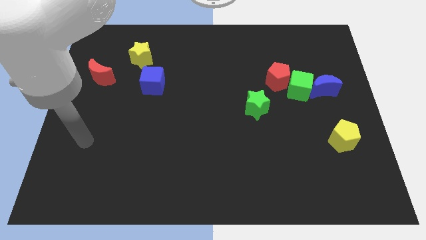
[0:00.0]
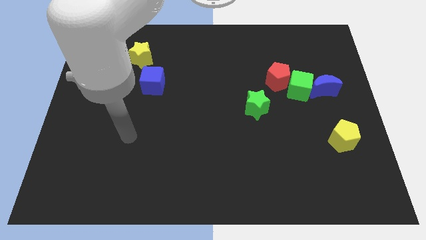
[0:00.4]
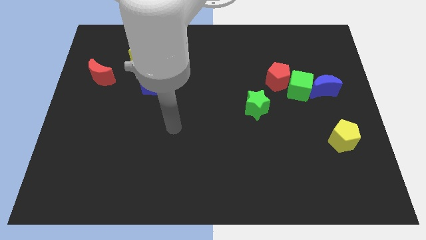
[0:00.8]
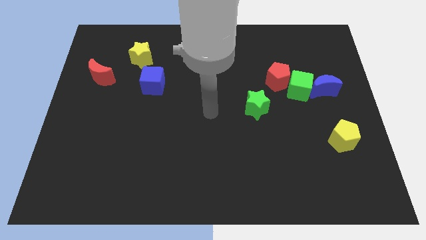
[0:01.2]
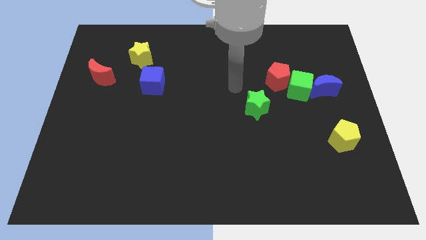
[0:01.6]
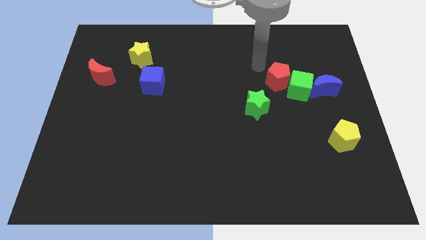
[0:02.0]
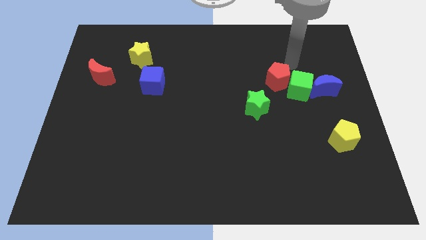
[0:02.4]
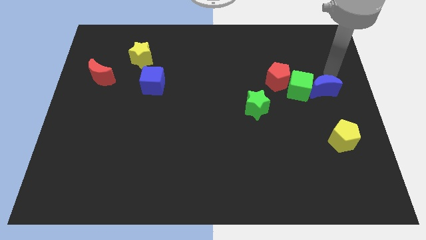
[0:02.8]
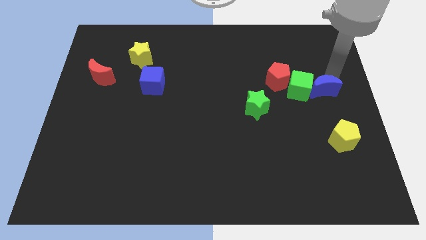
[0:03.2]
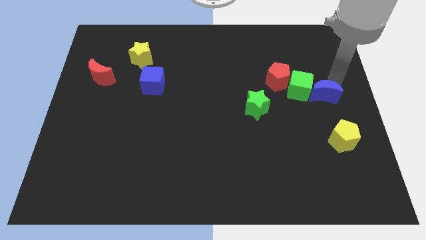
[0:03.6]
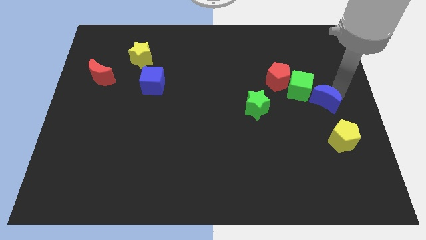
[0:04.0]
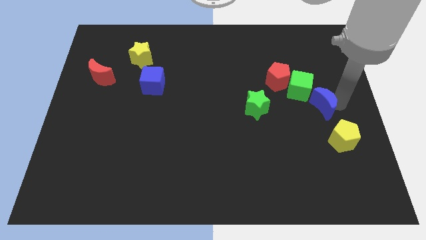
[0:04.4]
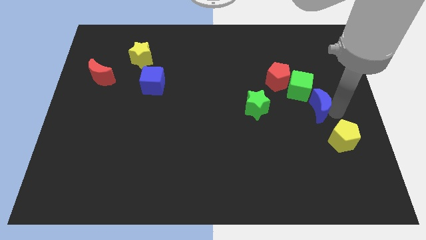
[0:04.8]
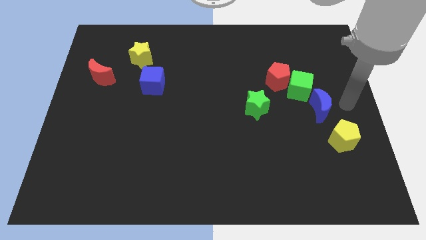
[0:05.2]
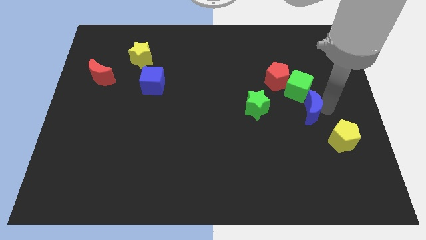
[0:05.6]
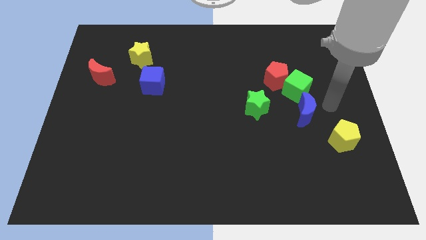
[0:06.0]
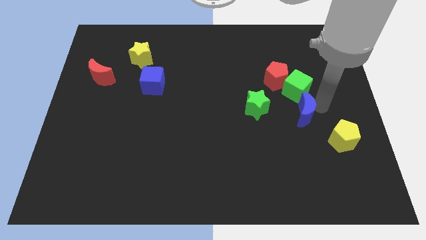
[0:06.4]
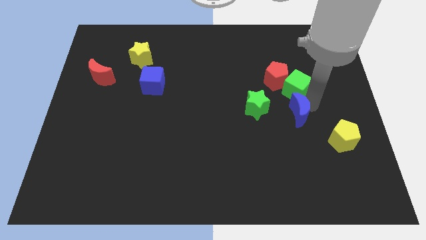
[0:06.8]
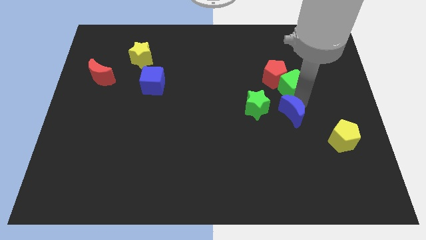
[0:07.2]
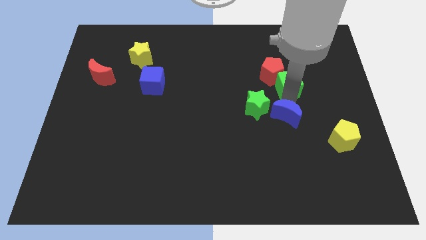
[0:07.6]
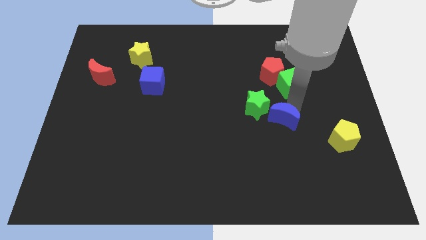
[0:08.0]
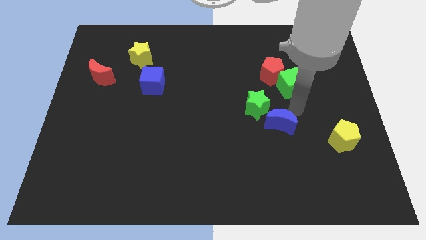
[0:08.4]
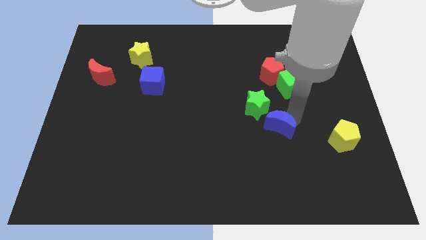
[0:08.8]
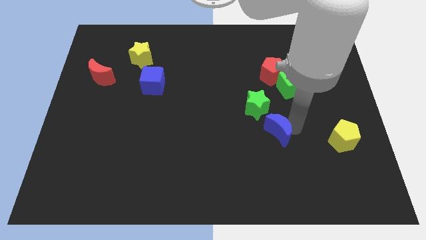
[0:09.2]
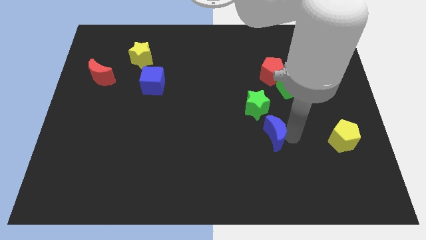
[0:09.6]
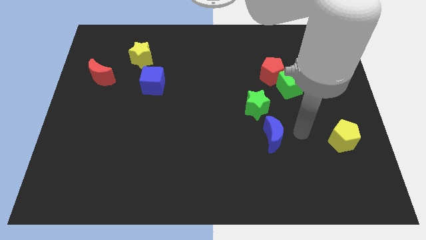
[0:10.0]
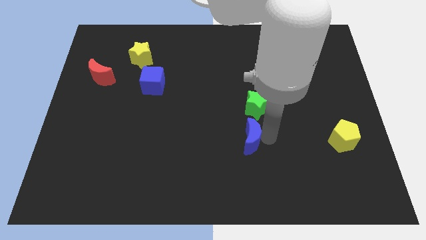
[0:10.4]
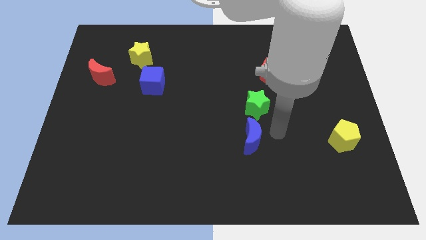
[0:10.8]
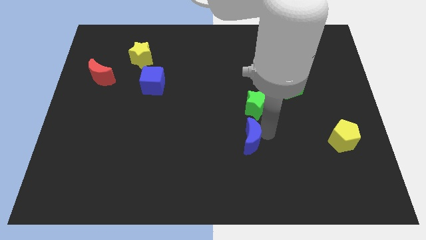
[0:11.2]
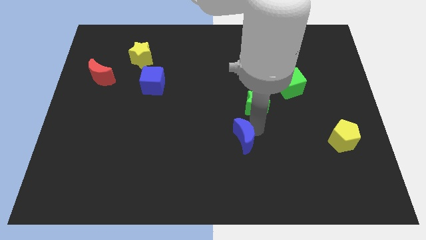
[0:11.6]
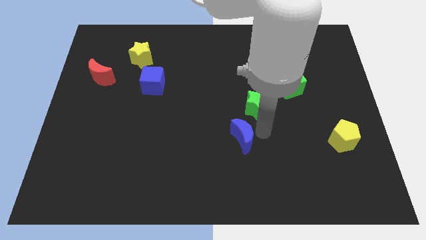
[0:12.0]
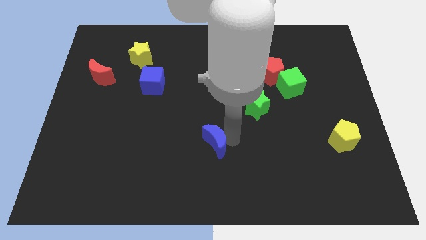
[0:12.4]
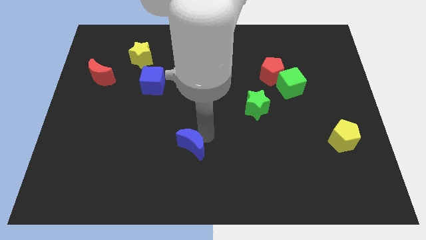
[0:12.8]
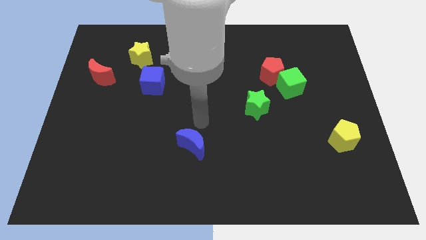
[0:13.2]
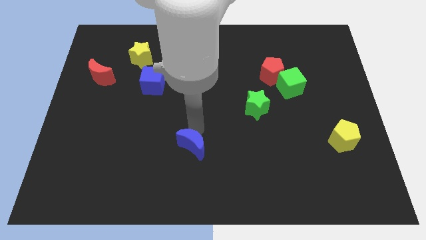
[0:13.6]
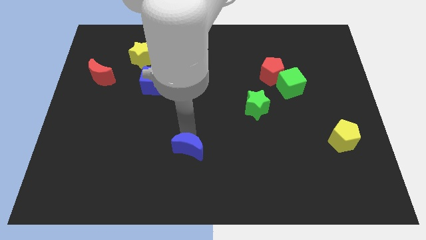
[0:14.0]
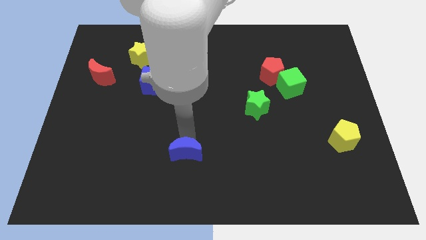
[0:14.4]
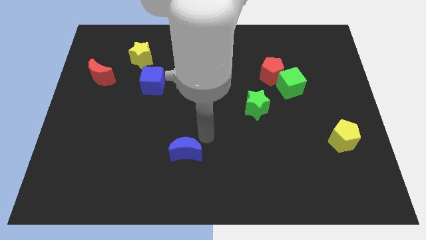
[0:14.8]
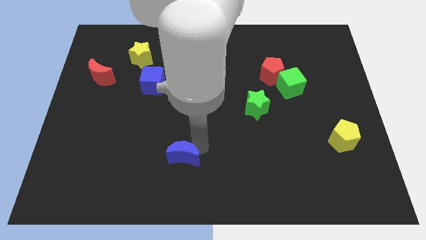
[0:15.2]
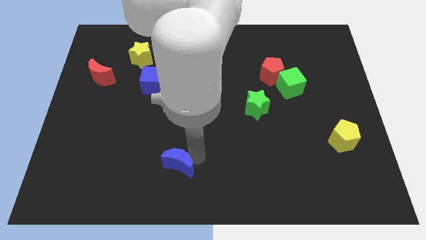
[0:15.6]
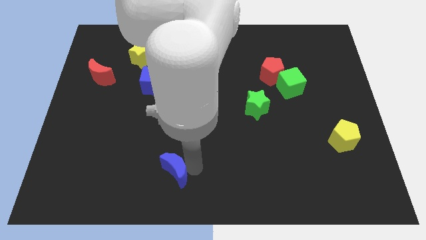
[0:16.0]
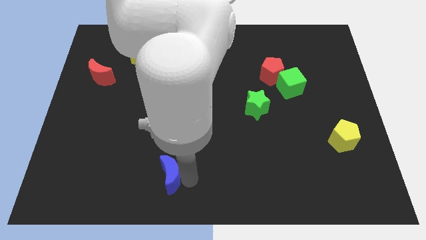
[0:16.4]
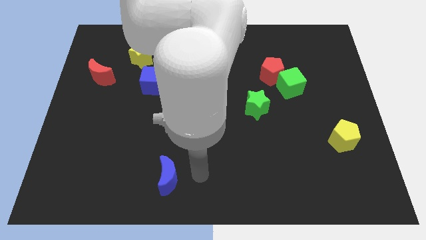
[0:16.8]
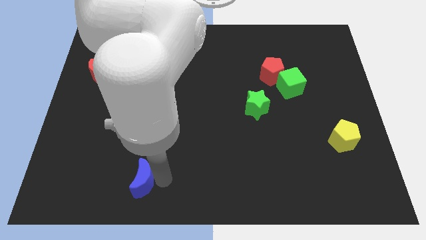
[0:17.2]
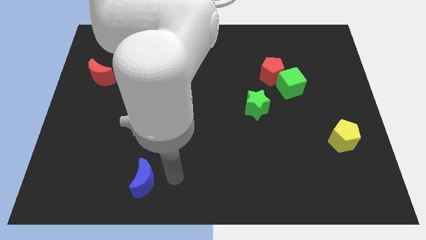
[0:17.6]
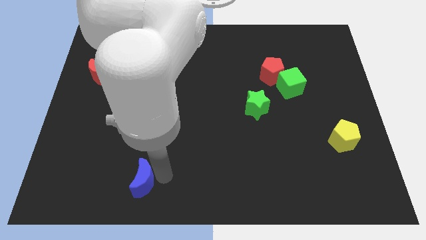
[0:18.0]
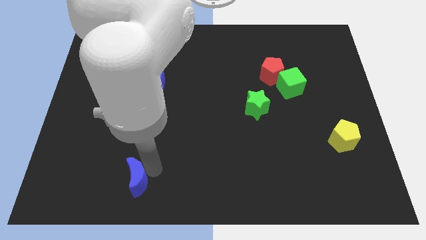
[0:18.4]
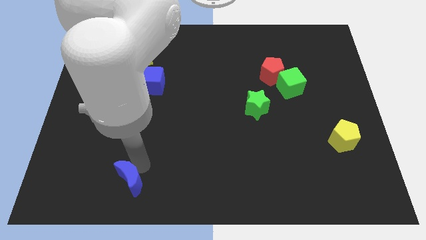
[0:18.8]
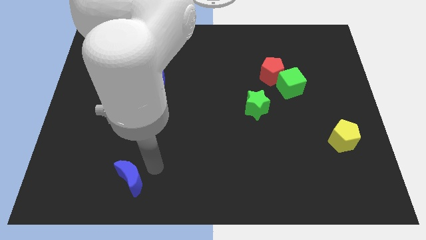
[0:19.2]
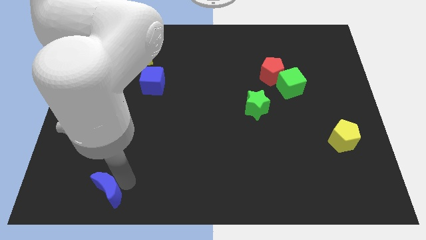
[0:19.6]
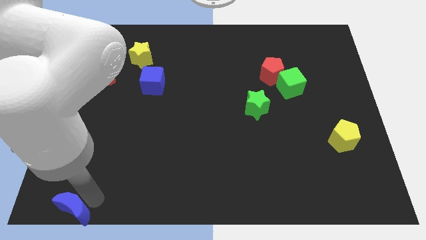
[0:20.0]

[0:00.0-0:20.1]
put the blue moon to the bottom left corner

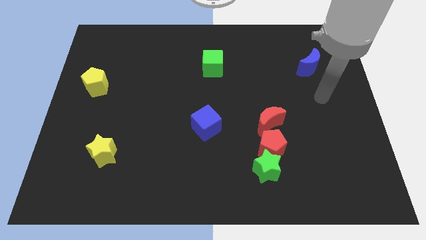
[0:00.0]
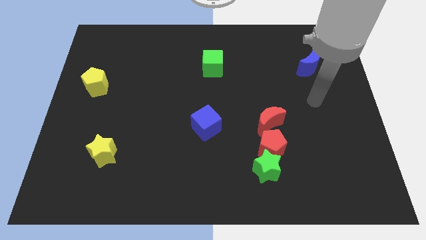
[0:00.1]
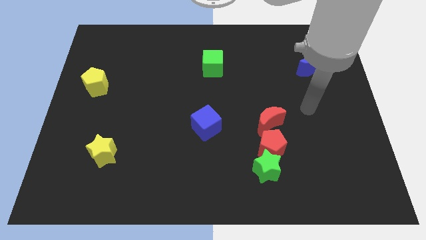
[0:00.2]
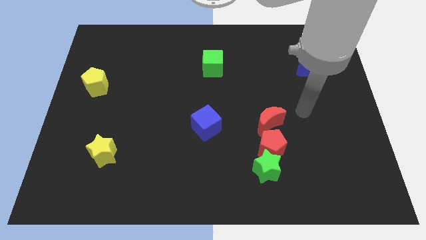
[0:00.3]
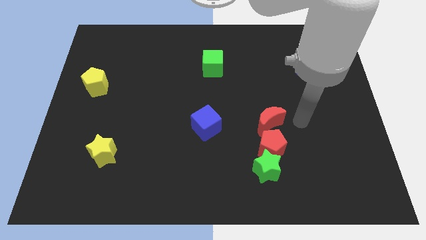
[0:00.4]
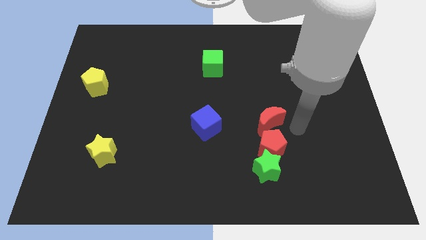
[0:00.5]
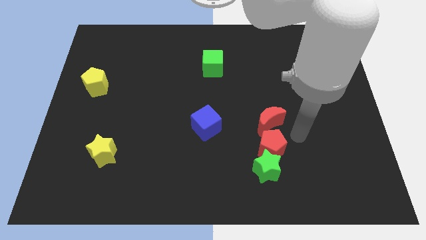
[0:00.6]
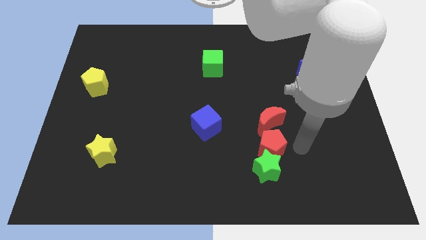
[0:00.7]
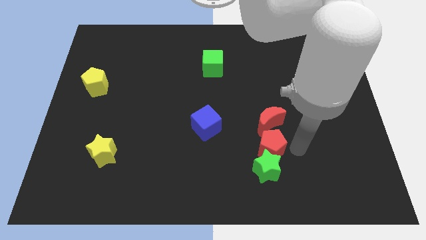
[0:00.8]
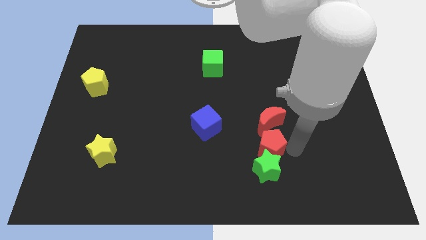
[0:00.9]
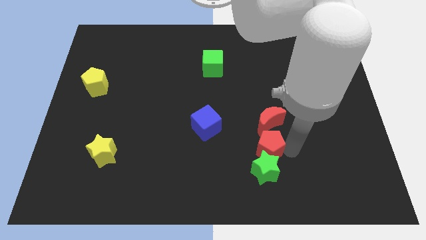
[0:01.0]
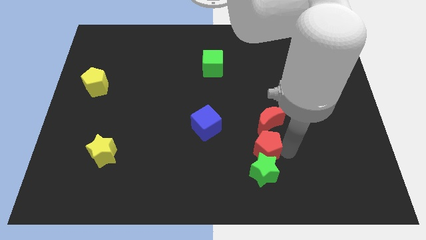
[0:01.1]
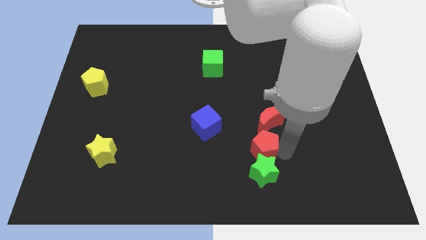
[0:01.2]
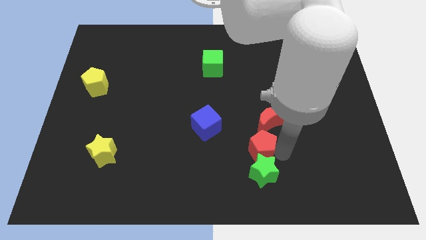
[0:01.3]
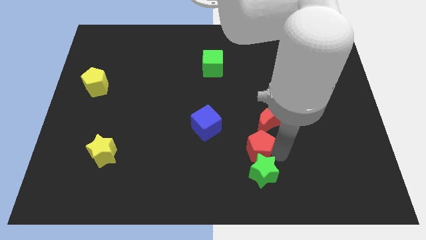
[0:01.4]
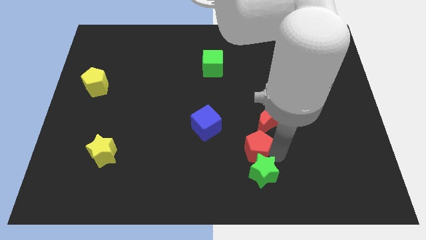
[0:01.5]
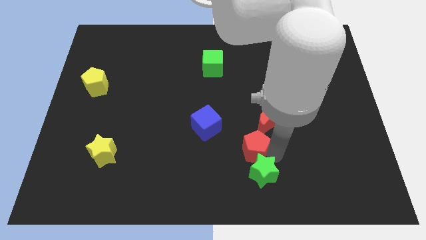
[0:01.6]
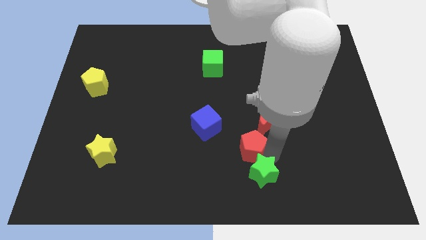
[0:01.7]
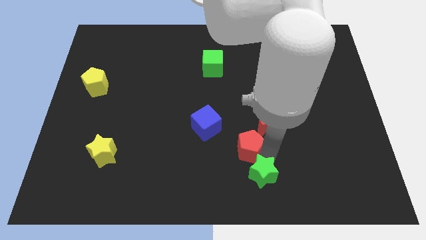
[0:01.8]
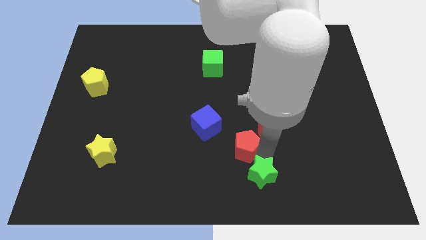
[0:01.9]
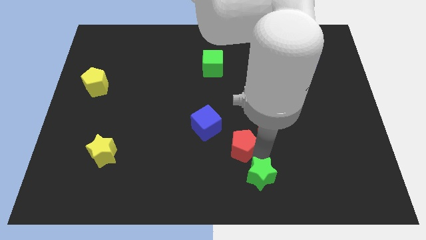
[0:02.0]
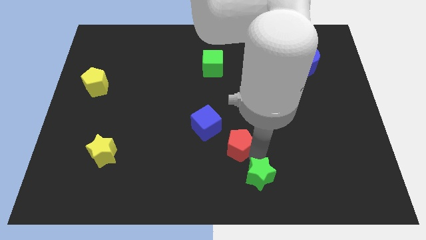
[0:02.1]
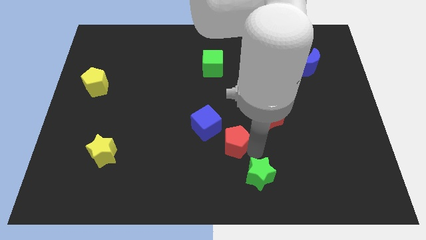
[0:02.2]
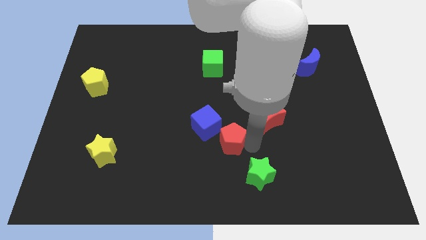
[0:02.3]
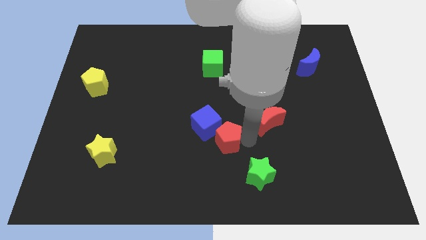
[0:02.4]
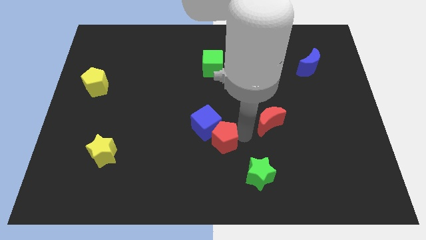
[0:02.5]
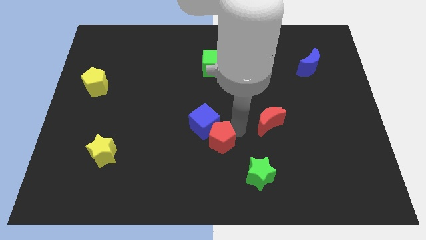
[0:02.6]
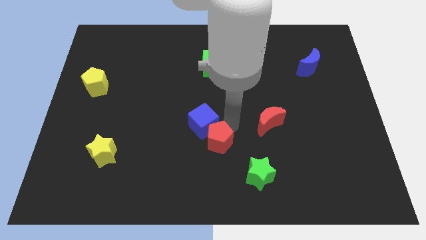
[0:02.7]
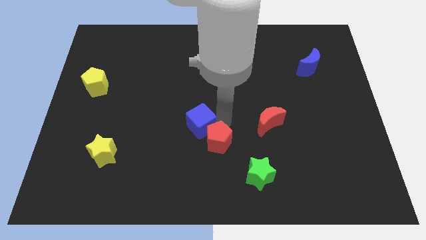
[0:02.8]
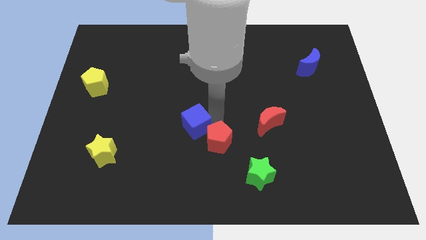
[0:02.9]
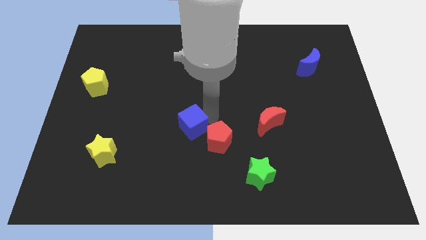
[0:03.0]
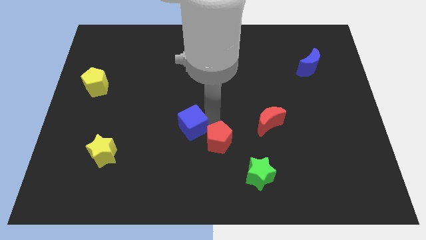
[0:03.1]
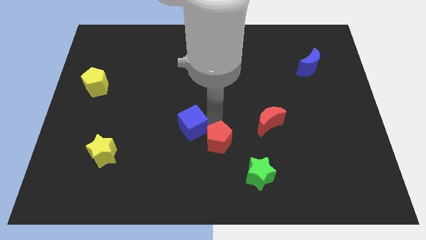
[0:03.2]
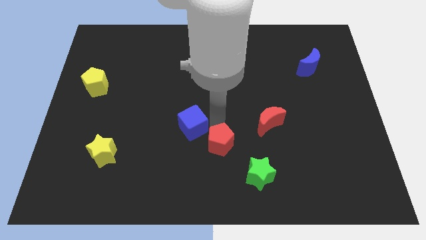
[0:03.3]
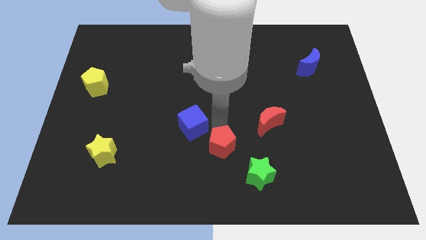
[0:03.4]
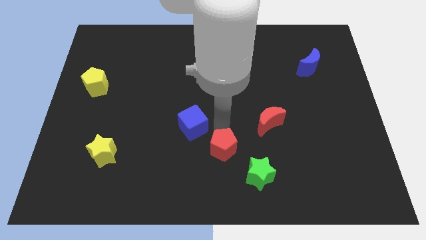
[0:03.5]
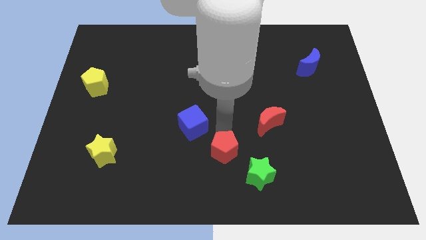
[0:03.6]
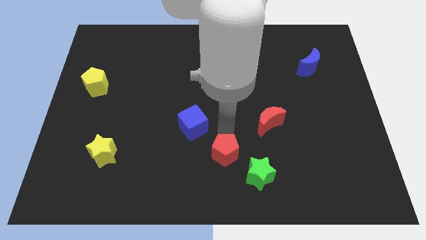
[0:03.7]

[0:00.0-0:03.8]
put the red pentagon to the bottom side
